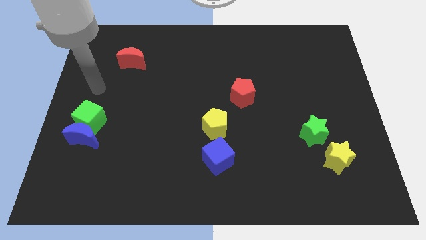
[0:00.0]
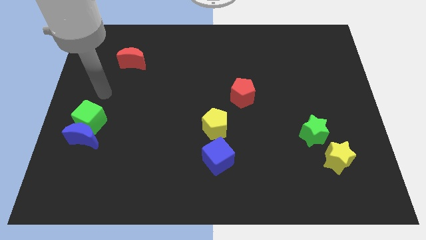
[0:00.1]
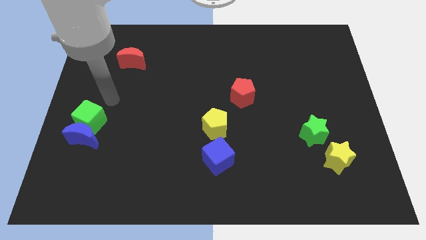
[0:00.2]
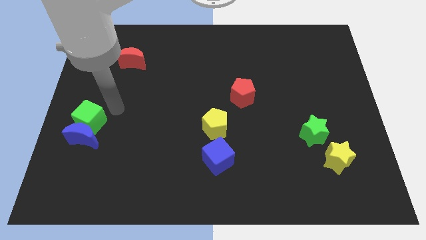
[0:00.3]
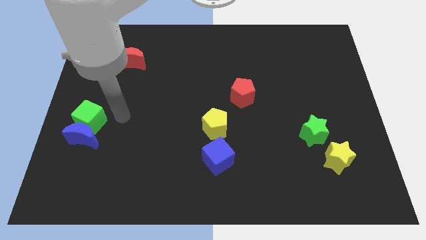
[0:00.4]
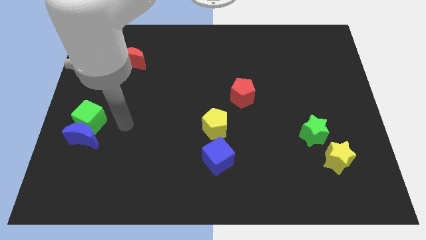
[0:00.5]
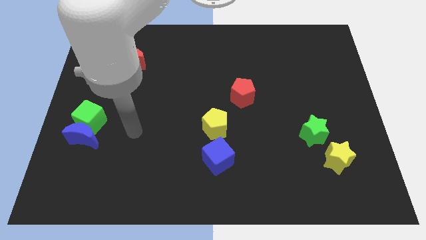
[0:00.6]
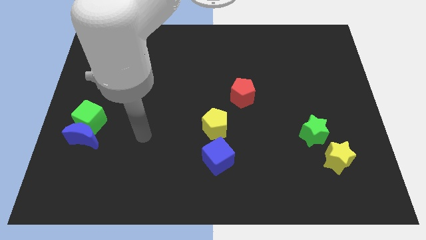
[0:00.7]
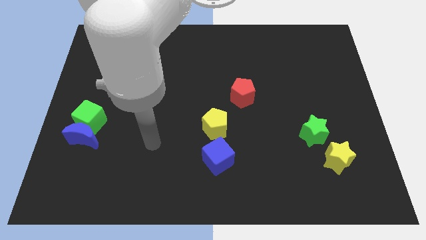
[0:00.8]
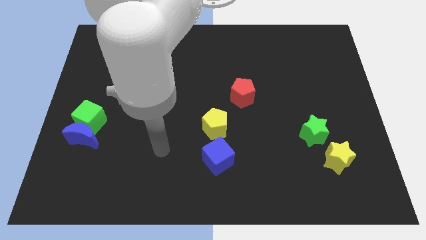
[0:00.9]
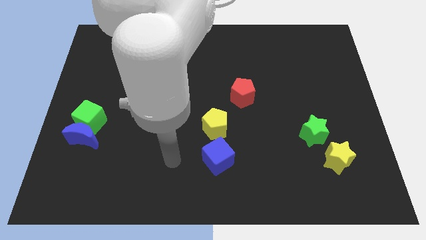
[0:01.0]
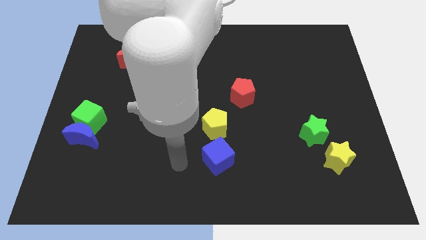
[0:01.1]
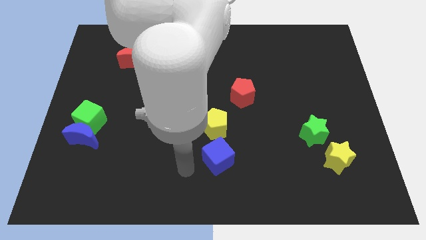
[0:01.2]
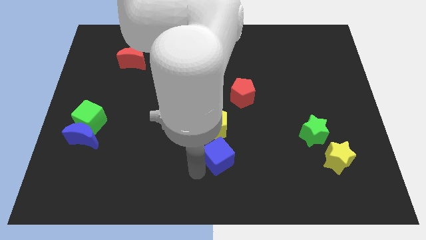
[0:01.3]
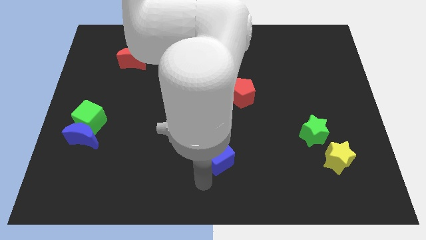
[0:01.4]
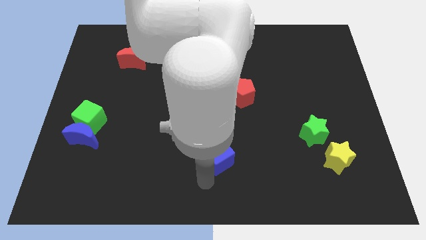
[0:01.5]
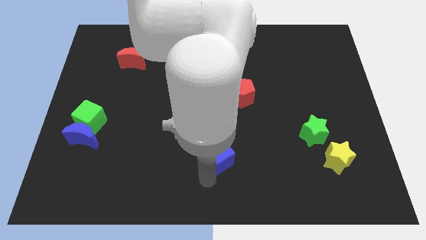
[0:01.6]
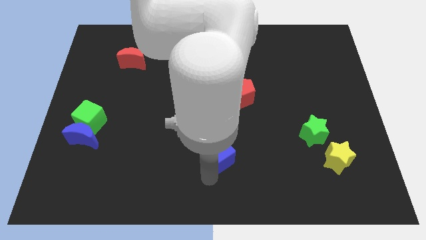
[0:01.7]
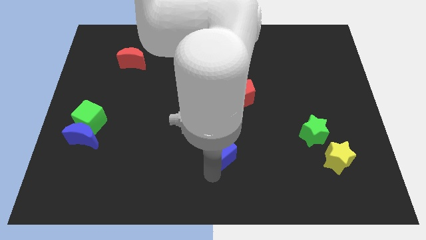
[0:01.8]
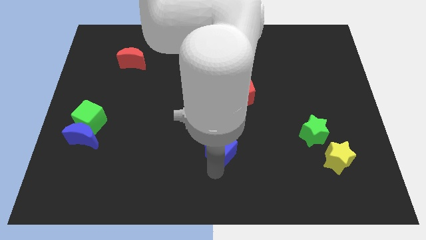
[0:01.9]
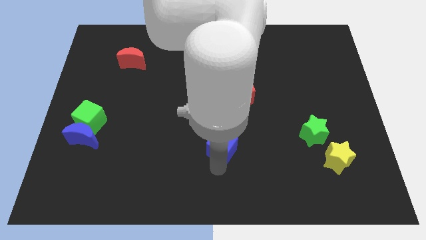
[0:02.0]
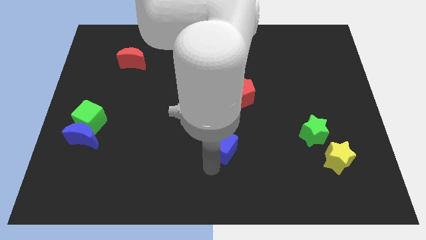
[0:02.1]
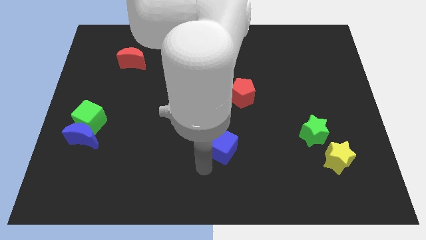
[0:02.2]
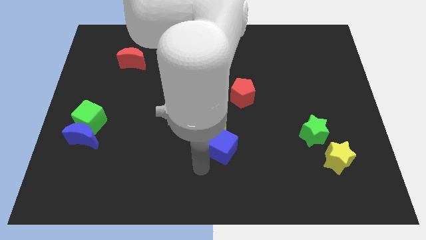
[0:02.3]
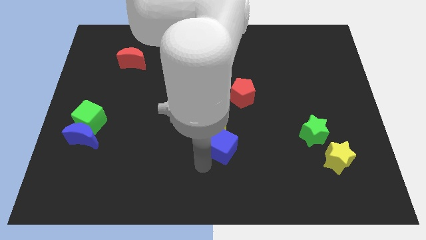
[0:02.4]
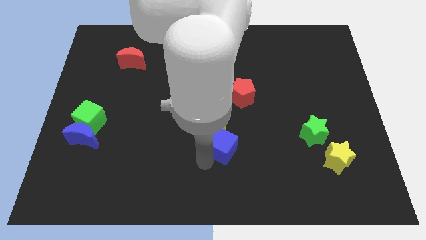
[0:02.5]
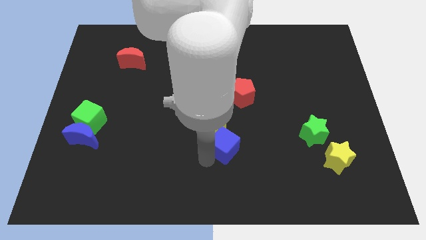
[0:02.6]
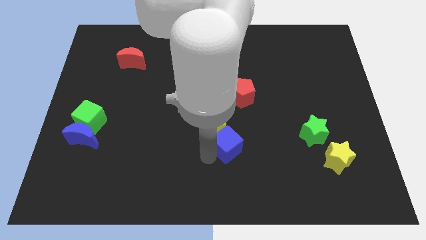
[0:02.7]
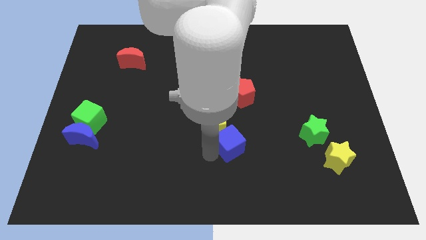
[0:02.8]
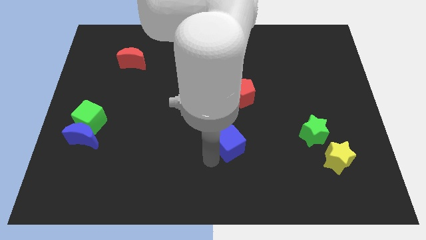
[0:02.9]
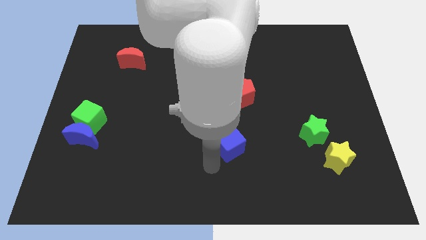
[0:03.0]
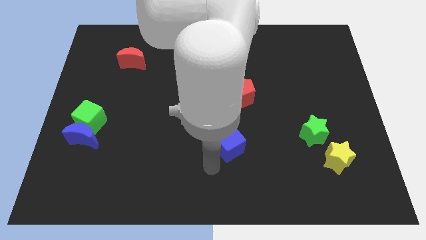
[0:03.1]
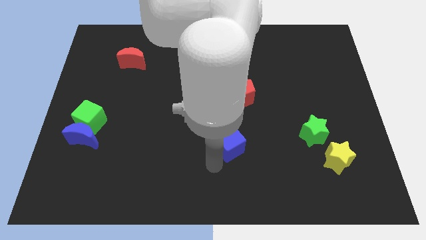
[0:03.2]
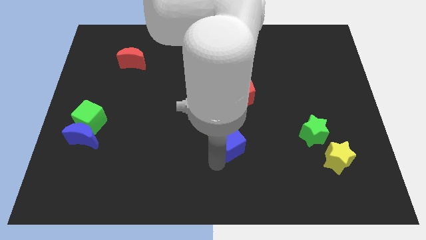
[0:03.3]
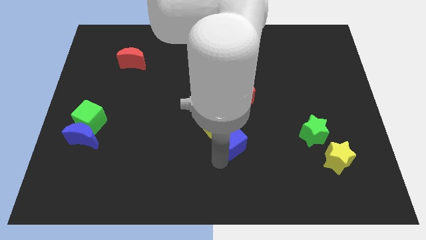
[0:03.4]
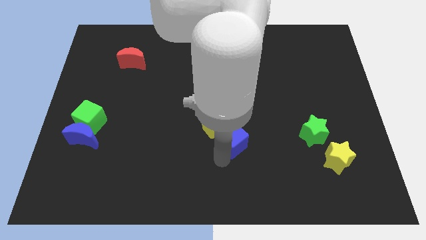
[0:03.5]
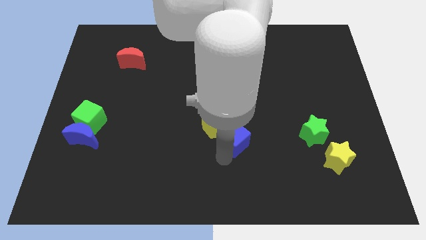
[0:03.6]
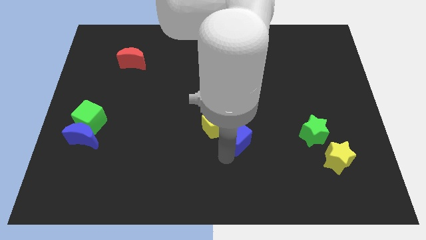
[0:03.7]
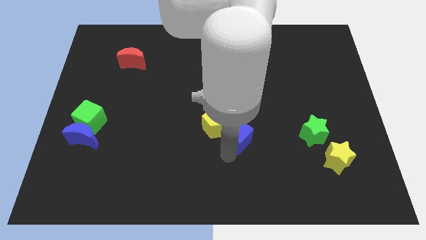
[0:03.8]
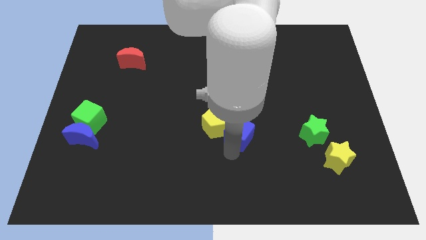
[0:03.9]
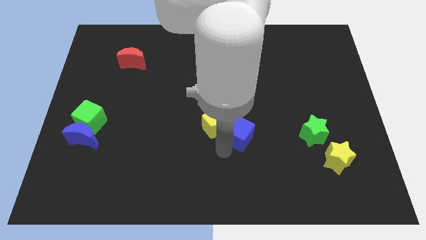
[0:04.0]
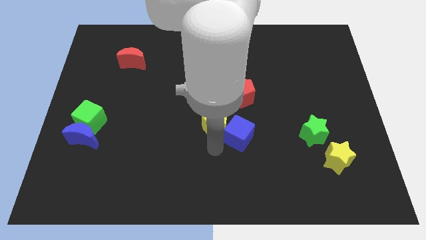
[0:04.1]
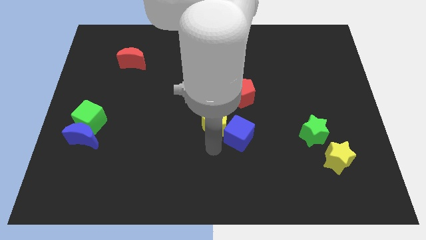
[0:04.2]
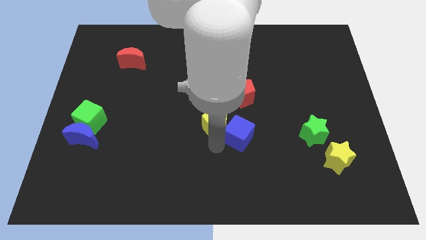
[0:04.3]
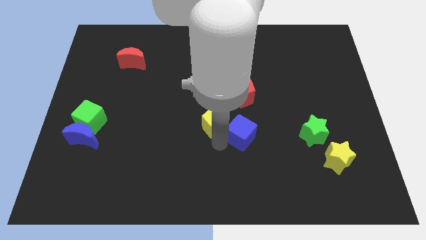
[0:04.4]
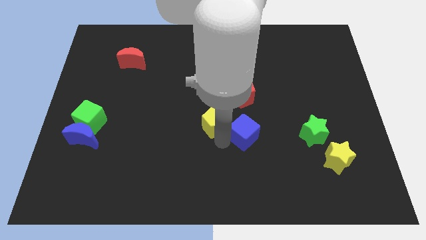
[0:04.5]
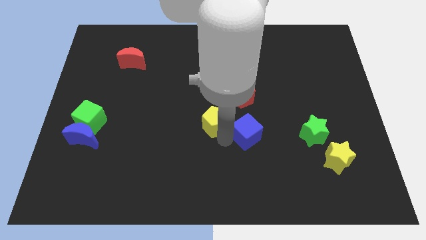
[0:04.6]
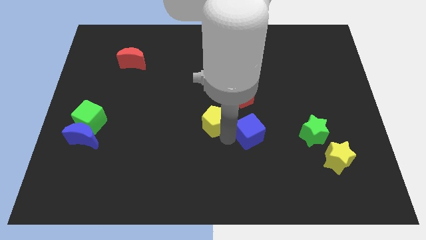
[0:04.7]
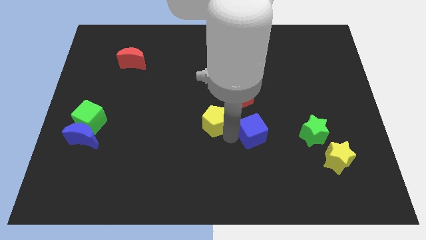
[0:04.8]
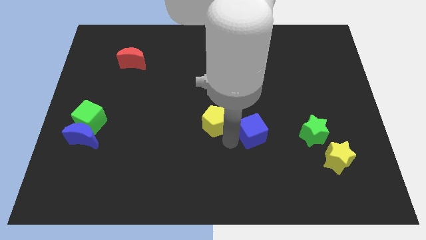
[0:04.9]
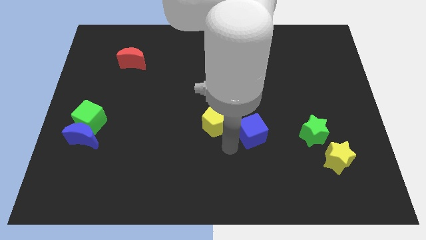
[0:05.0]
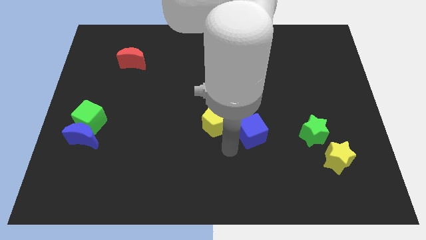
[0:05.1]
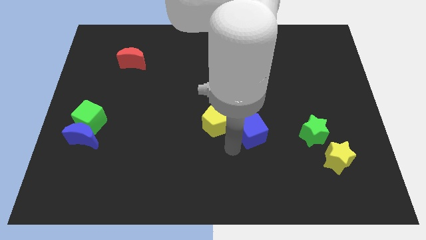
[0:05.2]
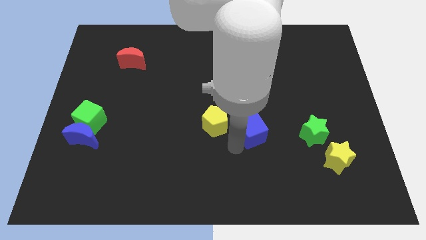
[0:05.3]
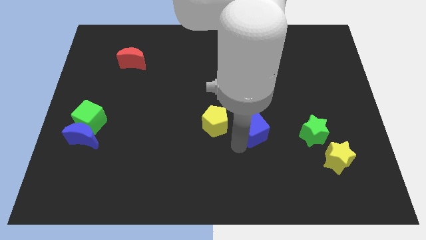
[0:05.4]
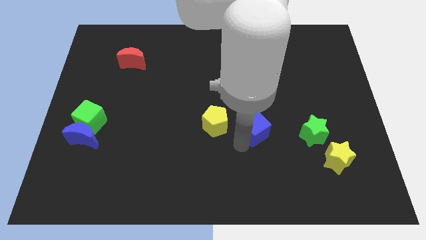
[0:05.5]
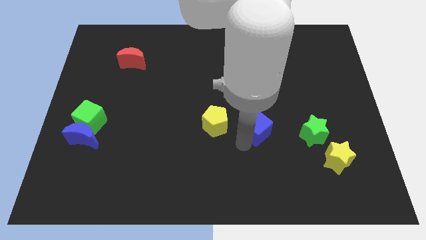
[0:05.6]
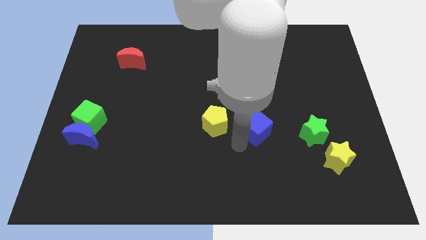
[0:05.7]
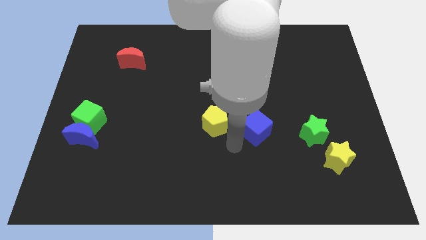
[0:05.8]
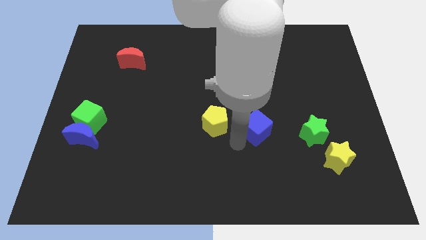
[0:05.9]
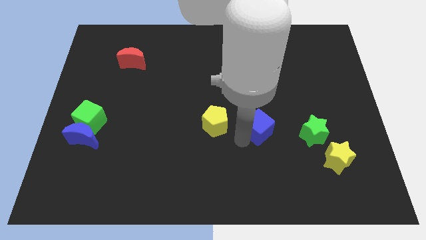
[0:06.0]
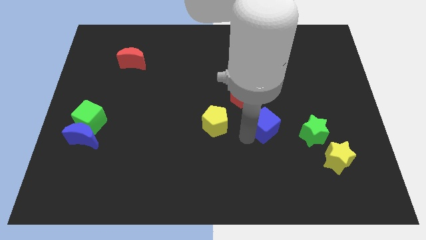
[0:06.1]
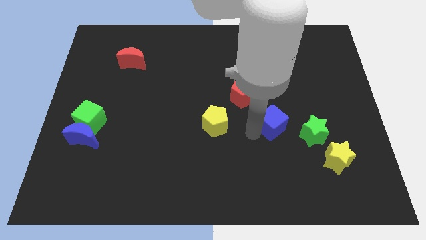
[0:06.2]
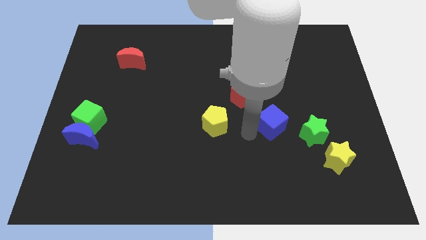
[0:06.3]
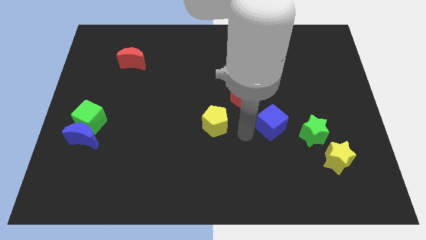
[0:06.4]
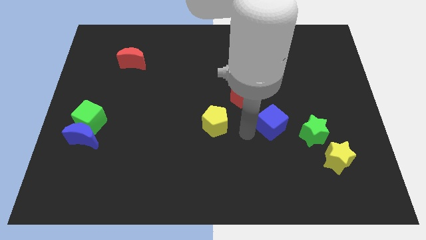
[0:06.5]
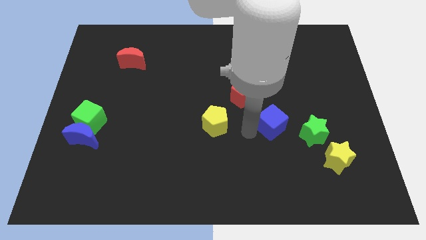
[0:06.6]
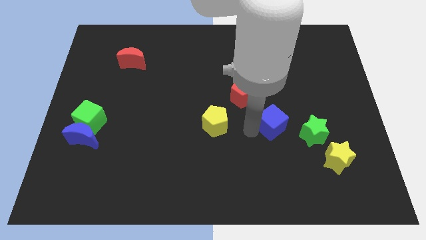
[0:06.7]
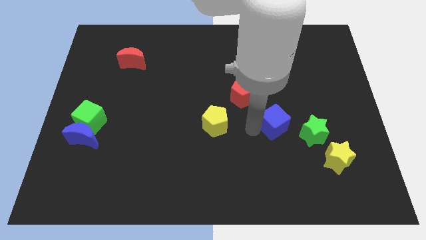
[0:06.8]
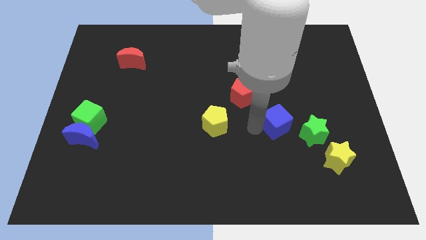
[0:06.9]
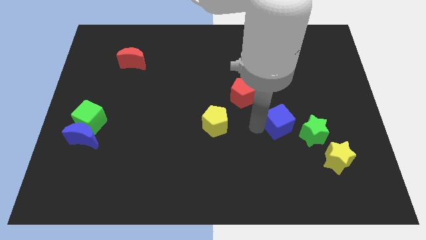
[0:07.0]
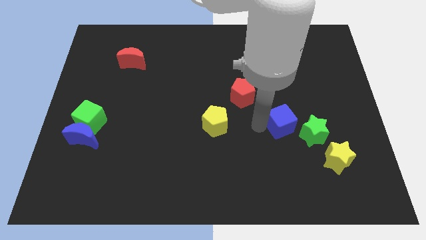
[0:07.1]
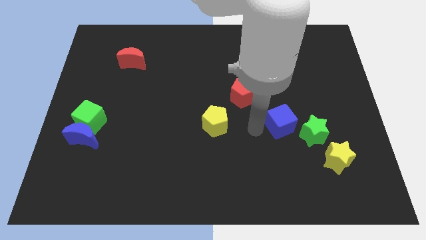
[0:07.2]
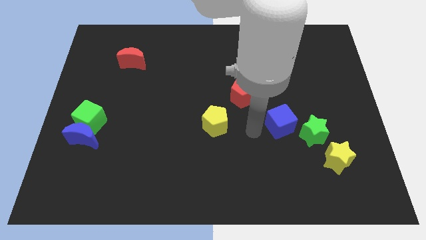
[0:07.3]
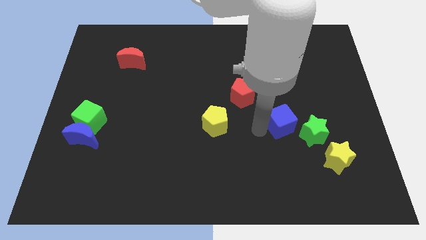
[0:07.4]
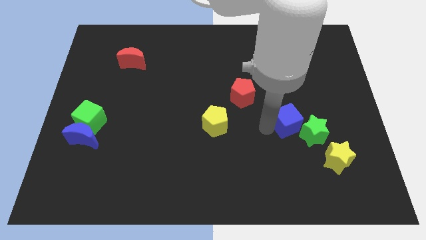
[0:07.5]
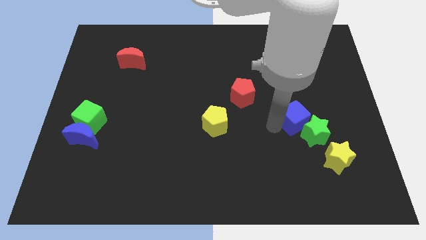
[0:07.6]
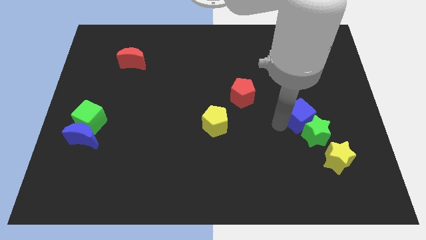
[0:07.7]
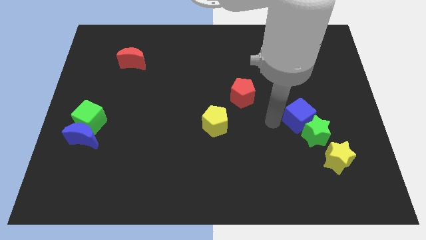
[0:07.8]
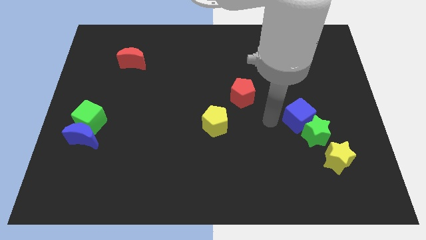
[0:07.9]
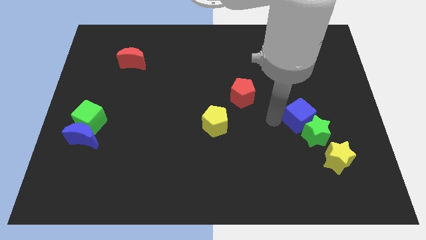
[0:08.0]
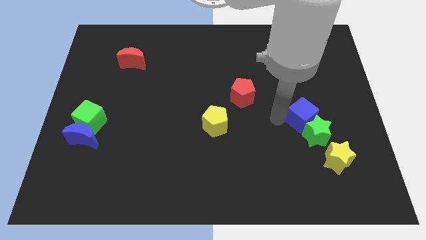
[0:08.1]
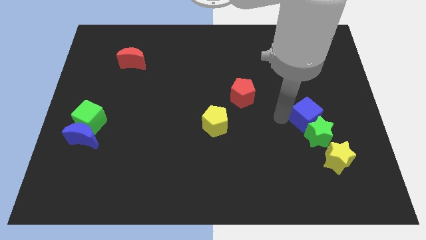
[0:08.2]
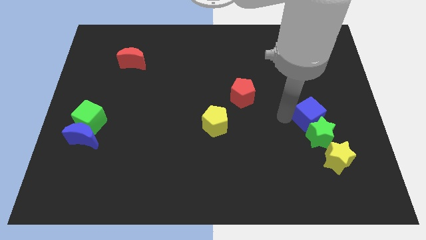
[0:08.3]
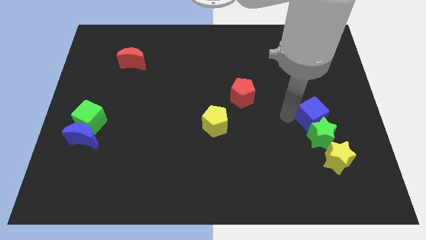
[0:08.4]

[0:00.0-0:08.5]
push the blue cube diagonally up and to the right of the green star
